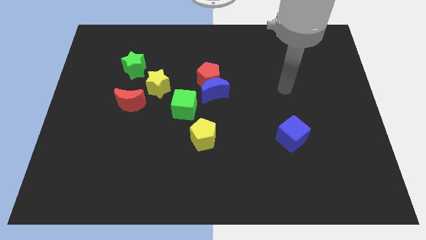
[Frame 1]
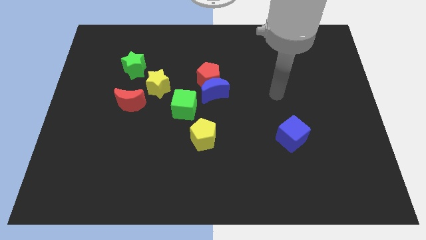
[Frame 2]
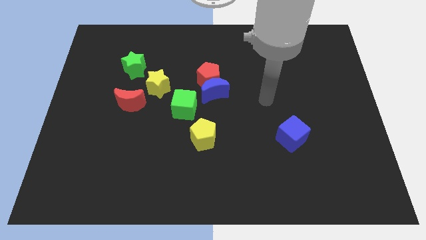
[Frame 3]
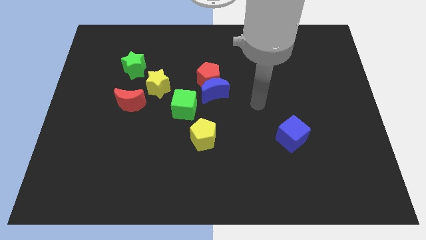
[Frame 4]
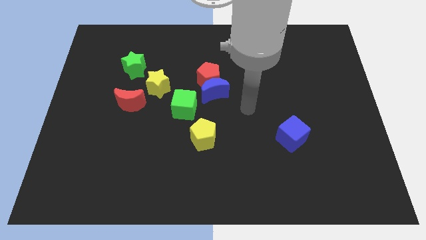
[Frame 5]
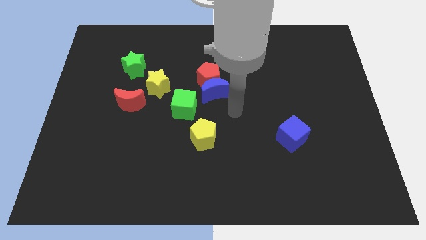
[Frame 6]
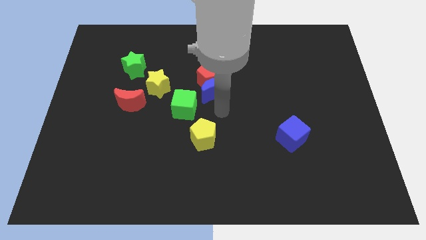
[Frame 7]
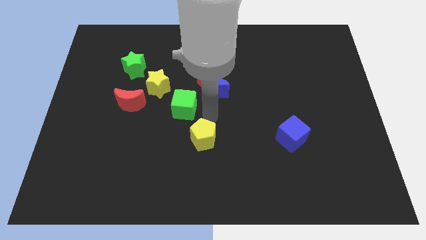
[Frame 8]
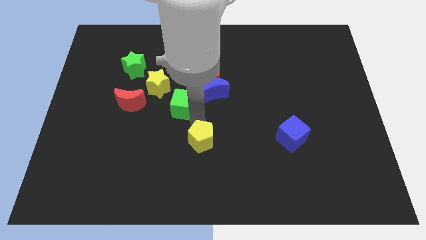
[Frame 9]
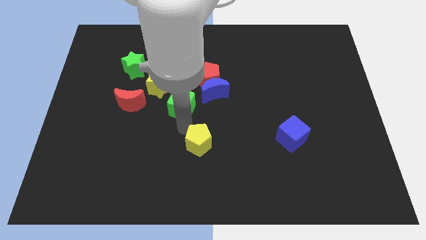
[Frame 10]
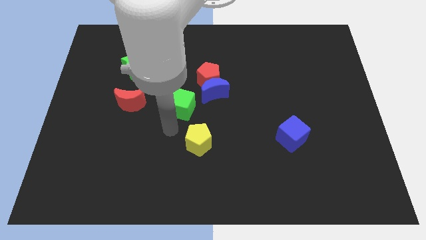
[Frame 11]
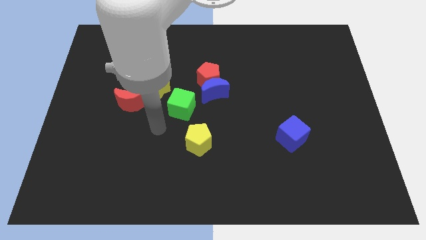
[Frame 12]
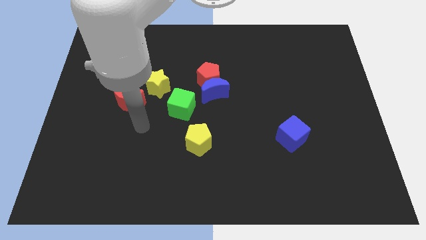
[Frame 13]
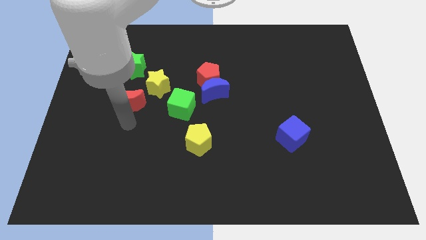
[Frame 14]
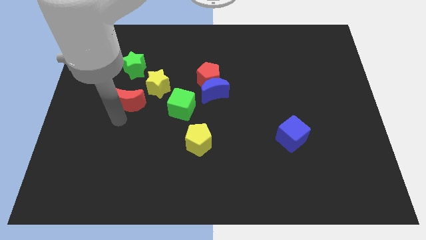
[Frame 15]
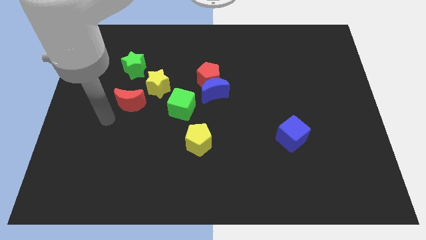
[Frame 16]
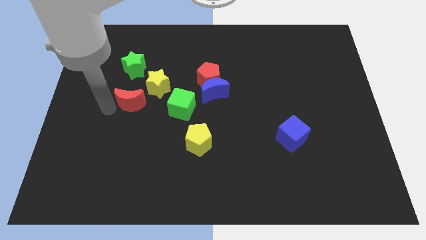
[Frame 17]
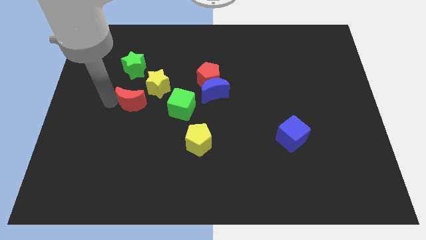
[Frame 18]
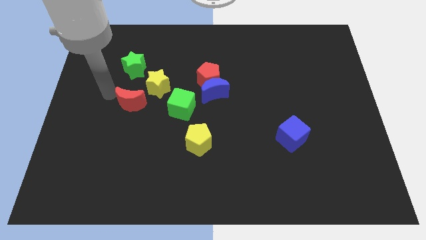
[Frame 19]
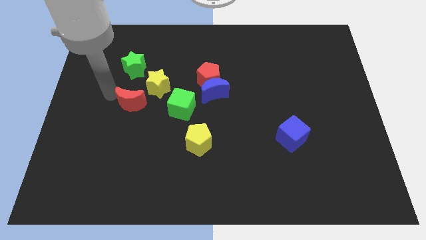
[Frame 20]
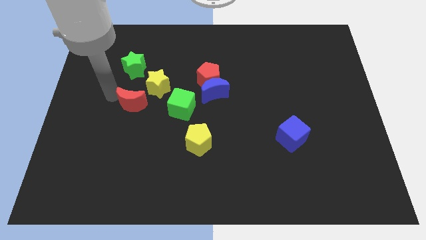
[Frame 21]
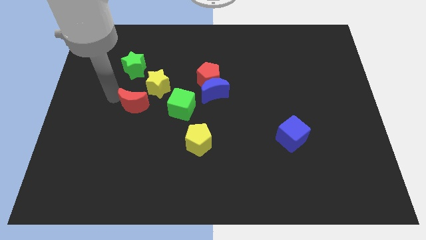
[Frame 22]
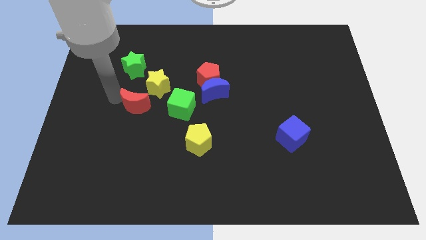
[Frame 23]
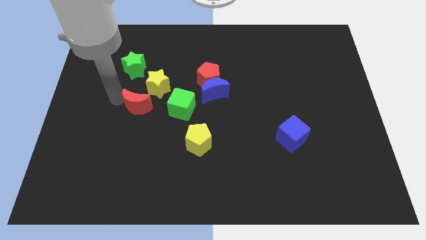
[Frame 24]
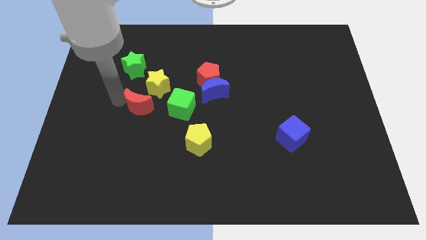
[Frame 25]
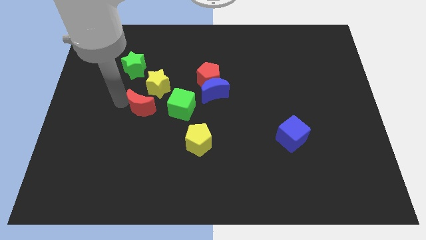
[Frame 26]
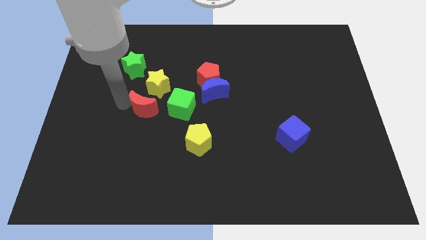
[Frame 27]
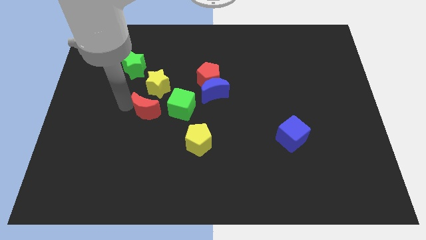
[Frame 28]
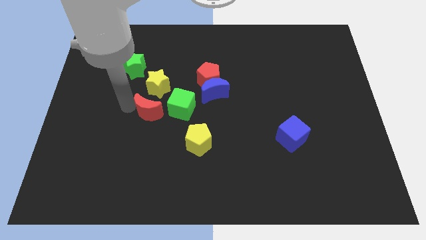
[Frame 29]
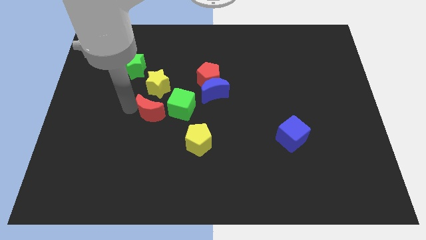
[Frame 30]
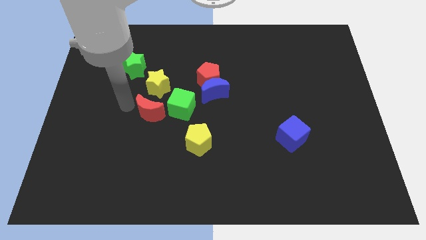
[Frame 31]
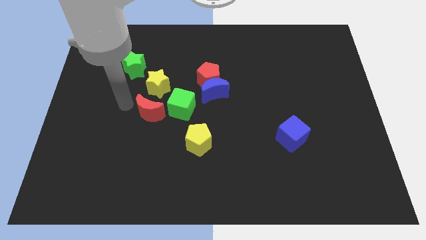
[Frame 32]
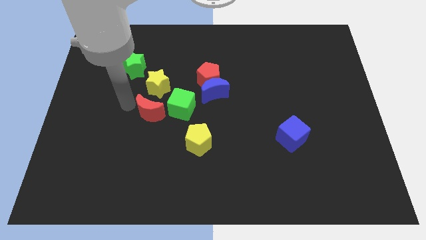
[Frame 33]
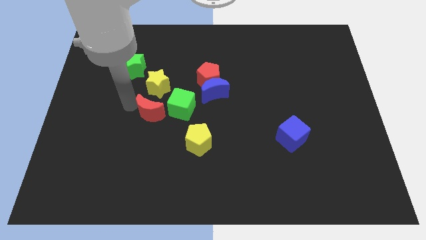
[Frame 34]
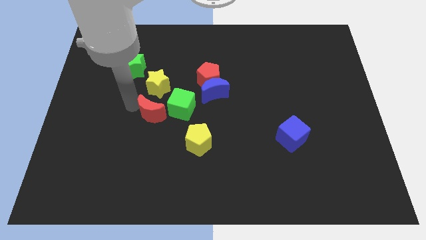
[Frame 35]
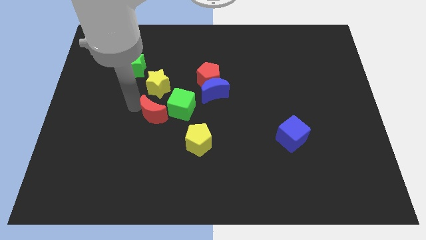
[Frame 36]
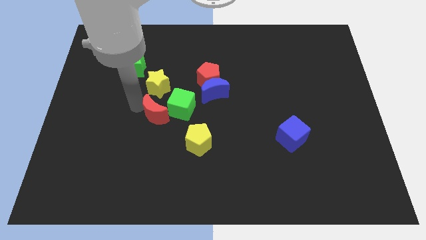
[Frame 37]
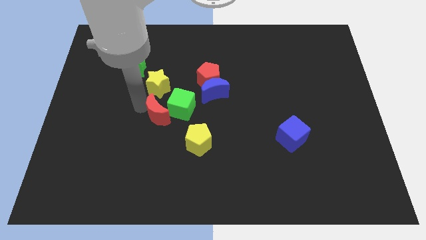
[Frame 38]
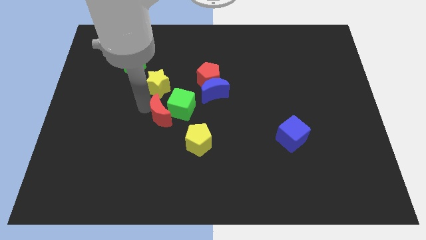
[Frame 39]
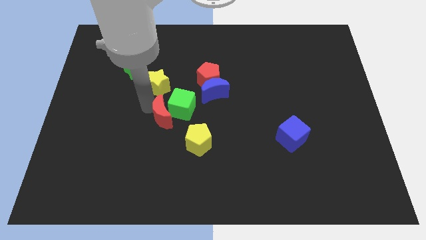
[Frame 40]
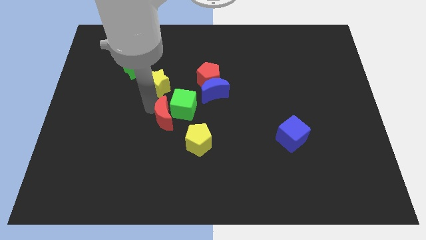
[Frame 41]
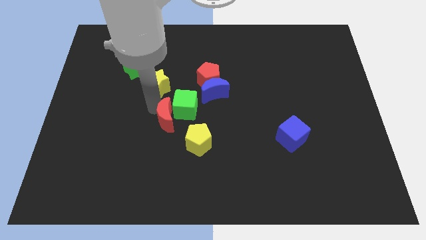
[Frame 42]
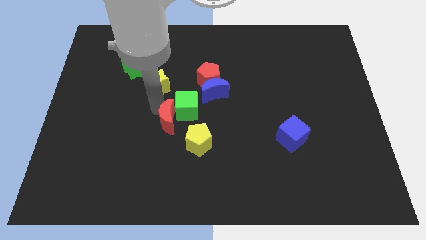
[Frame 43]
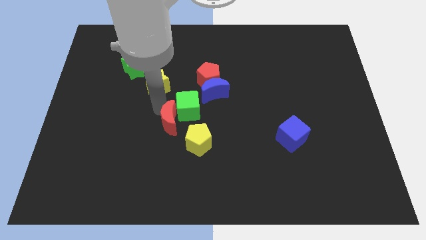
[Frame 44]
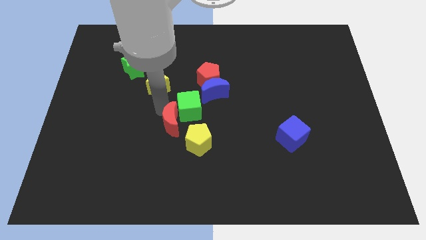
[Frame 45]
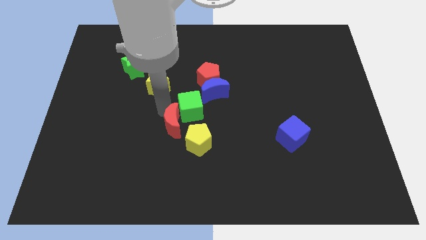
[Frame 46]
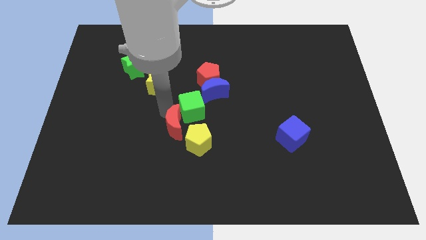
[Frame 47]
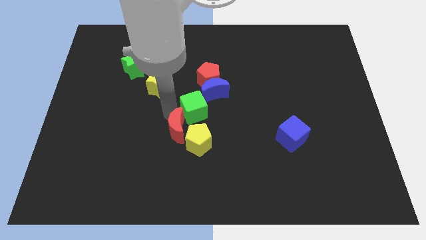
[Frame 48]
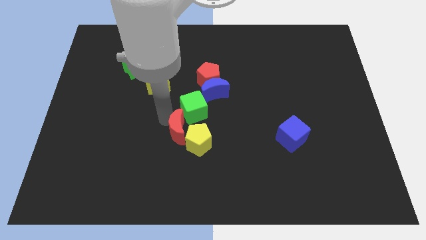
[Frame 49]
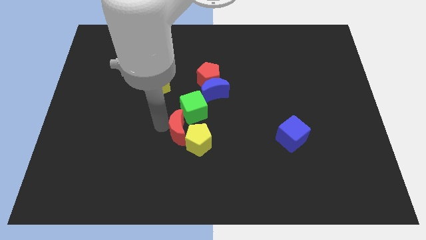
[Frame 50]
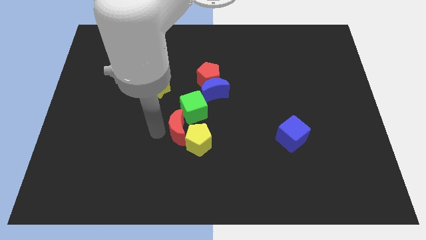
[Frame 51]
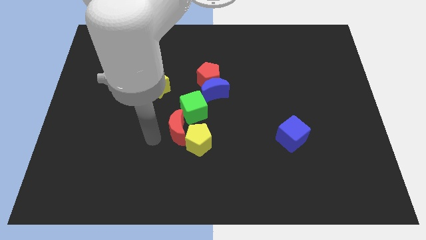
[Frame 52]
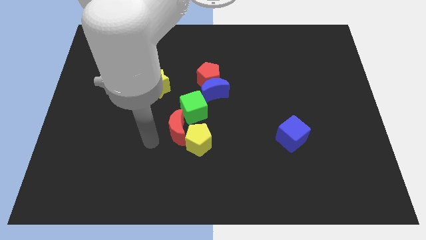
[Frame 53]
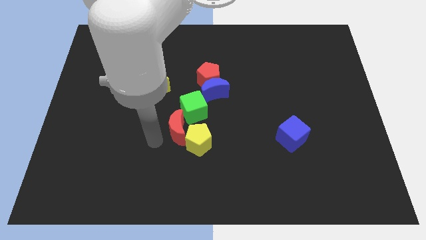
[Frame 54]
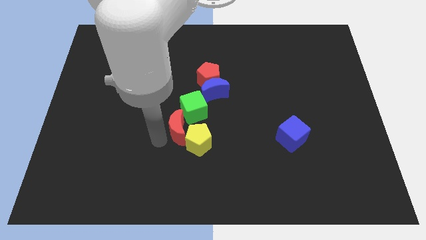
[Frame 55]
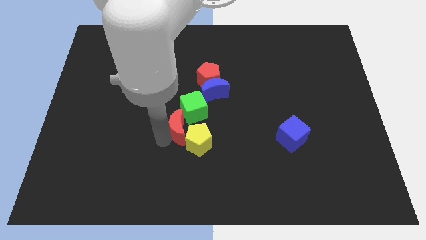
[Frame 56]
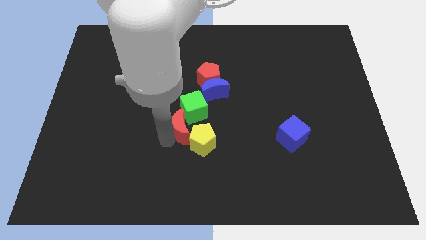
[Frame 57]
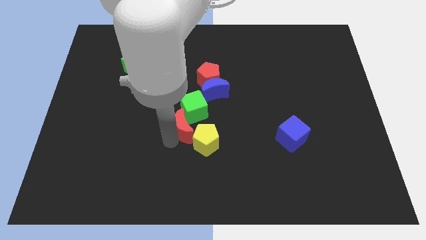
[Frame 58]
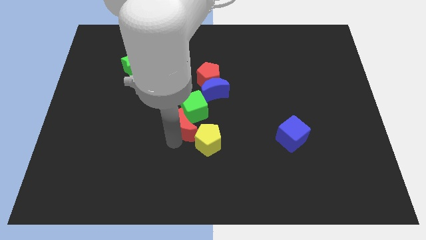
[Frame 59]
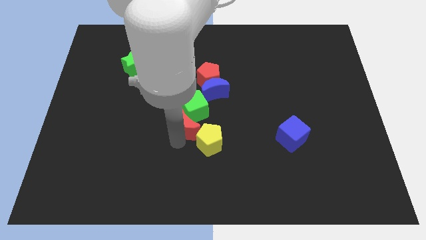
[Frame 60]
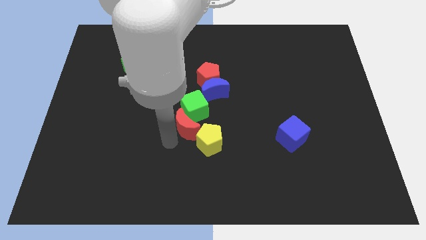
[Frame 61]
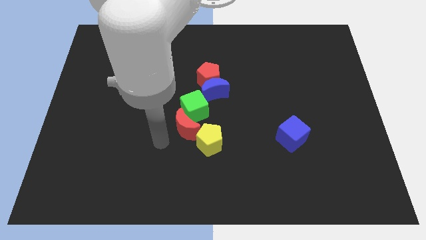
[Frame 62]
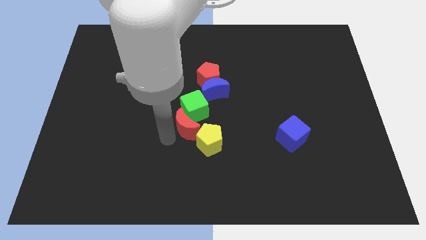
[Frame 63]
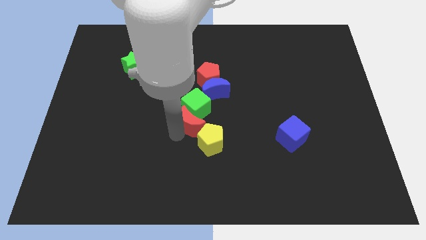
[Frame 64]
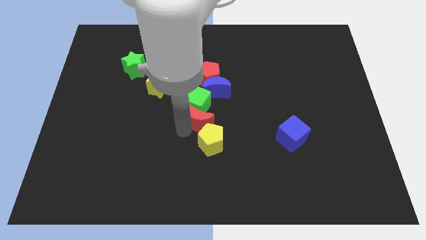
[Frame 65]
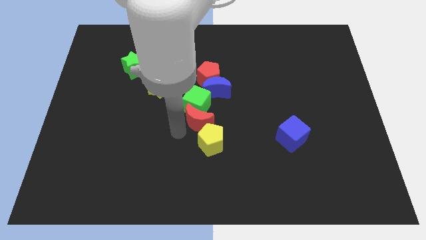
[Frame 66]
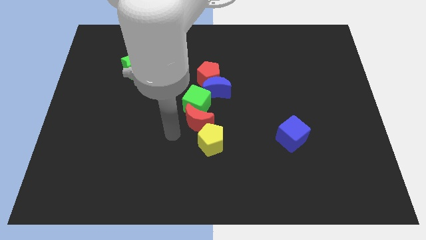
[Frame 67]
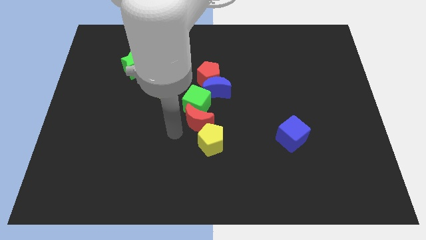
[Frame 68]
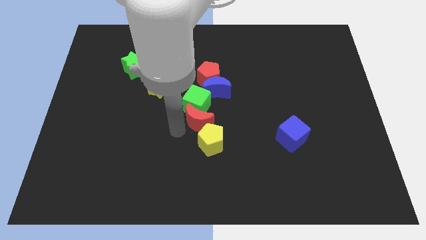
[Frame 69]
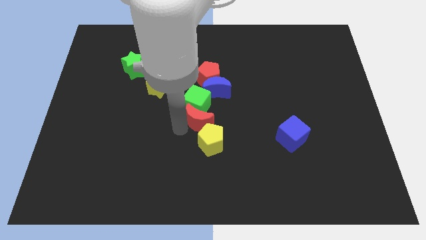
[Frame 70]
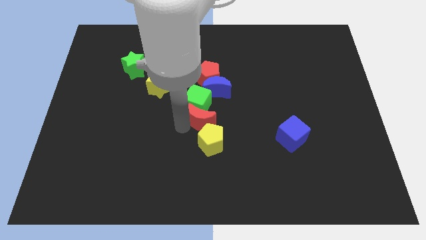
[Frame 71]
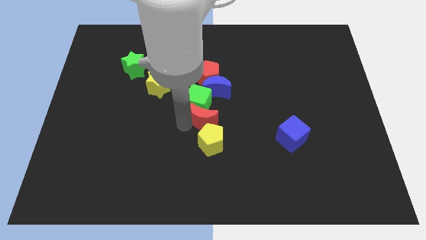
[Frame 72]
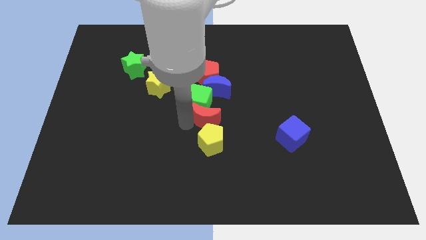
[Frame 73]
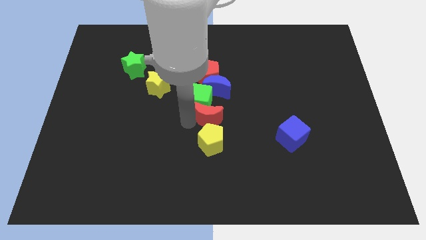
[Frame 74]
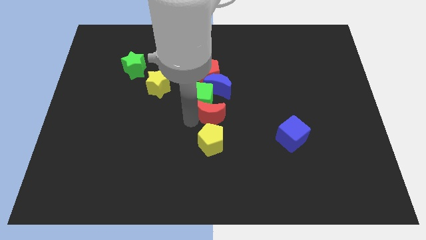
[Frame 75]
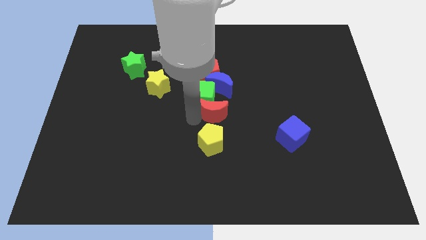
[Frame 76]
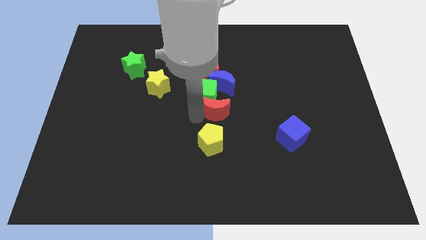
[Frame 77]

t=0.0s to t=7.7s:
push the red moon to the right

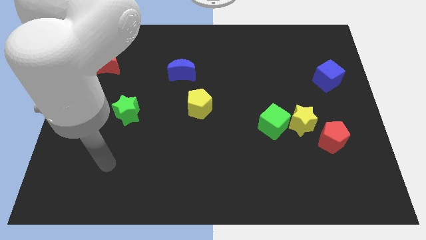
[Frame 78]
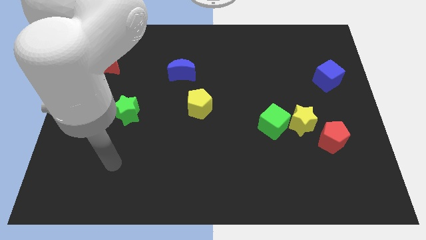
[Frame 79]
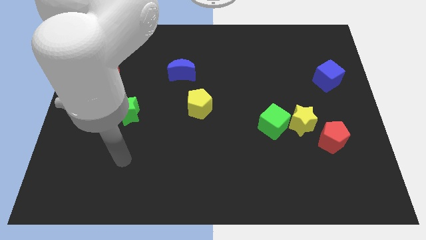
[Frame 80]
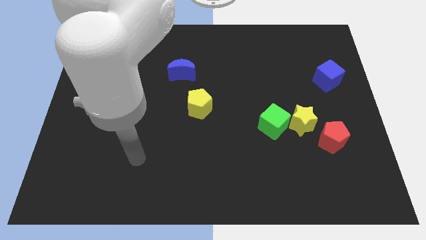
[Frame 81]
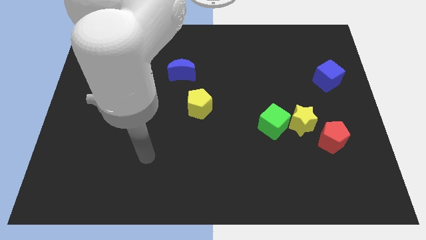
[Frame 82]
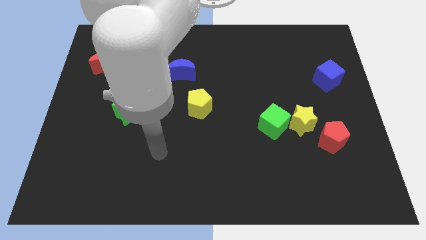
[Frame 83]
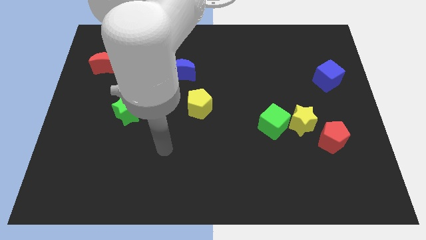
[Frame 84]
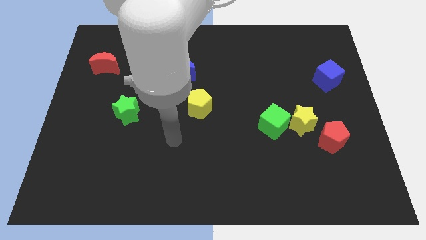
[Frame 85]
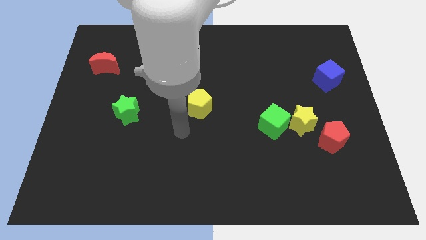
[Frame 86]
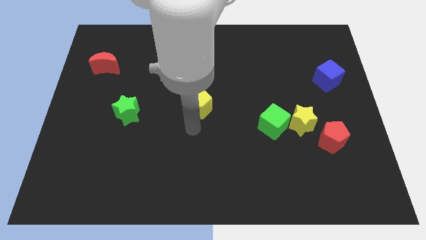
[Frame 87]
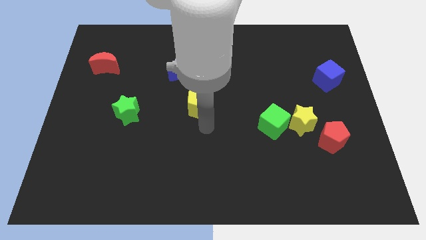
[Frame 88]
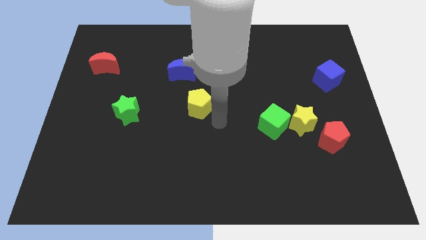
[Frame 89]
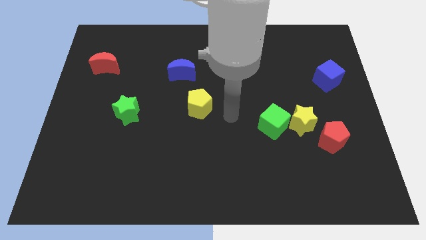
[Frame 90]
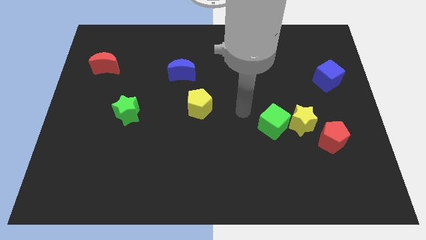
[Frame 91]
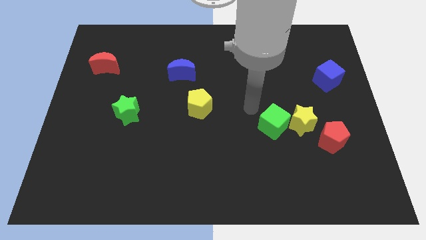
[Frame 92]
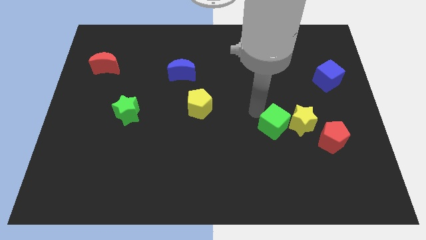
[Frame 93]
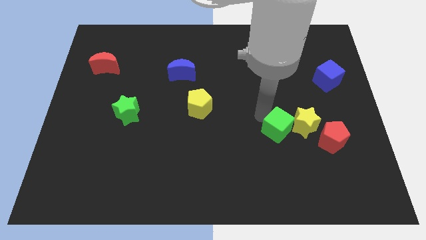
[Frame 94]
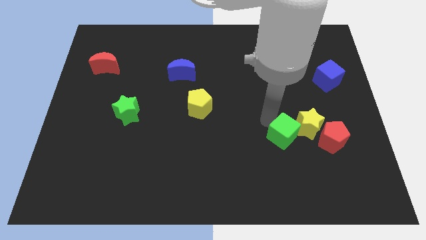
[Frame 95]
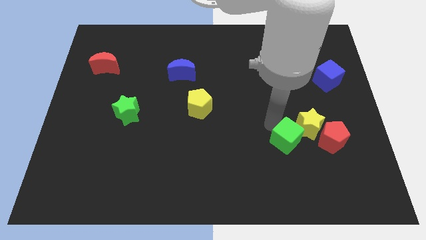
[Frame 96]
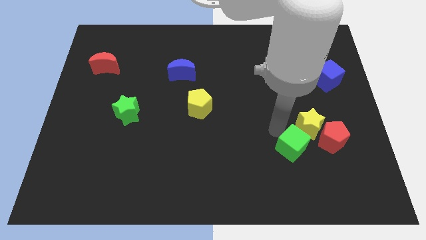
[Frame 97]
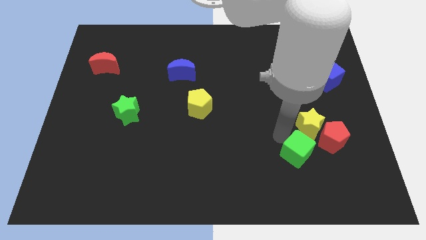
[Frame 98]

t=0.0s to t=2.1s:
push the green cube somewhat diagonally down and to the right
